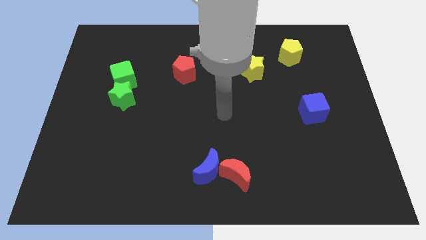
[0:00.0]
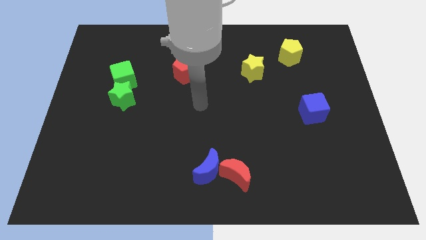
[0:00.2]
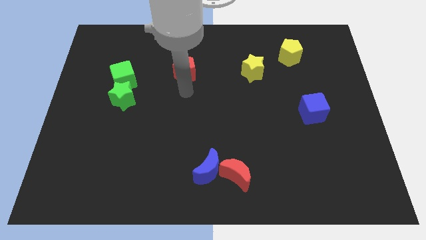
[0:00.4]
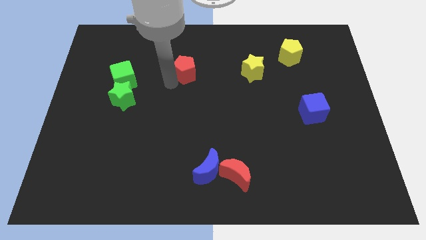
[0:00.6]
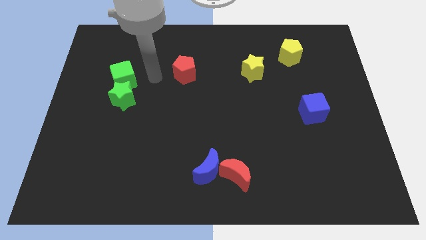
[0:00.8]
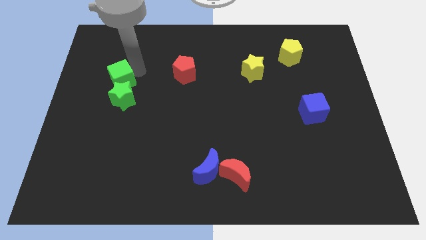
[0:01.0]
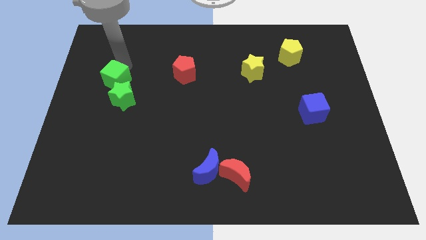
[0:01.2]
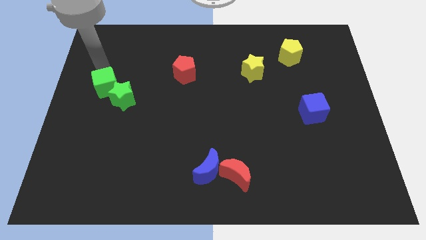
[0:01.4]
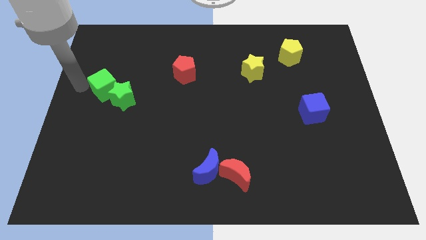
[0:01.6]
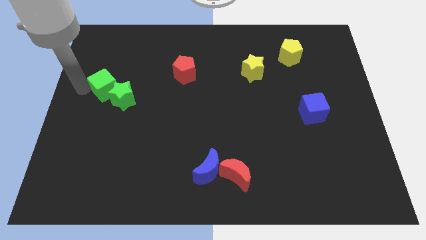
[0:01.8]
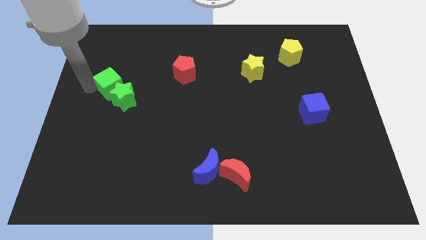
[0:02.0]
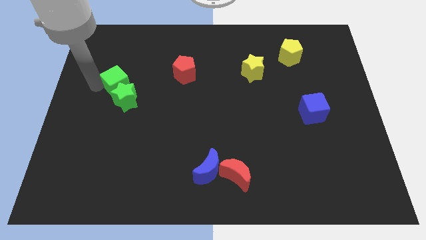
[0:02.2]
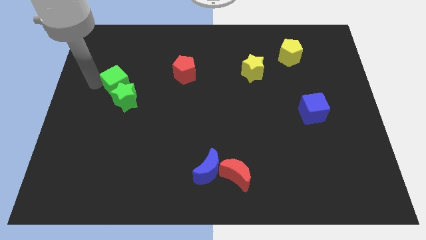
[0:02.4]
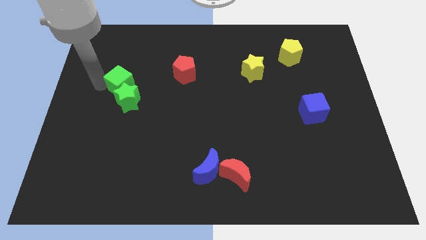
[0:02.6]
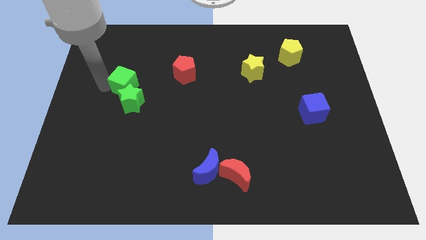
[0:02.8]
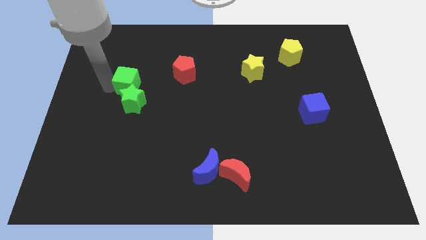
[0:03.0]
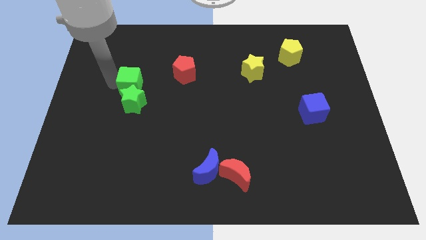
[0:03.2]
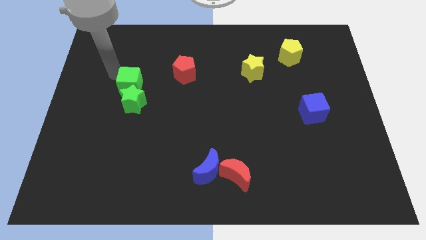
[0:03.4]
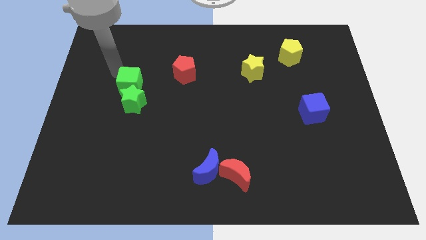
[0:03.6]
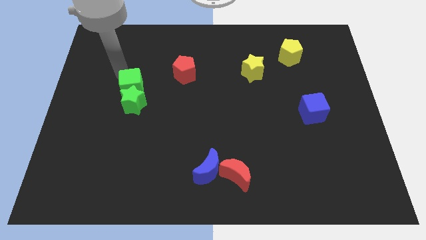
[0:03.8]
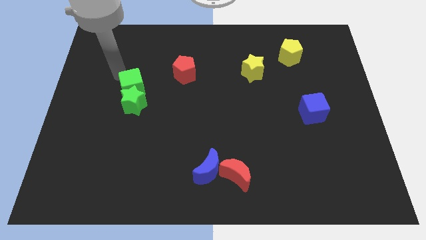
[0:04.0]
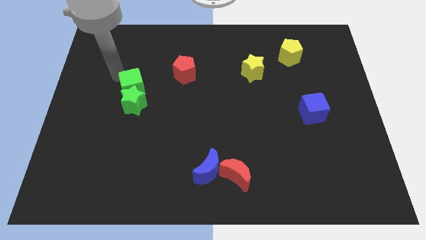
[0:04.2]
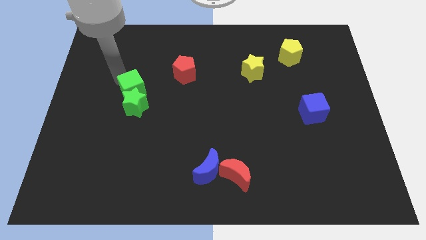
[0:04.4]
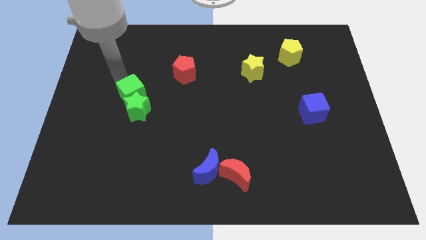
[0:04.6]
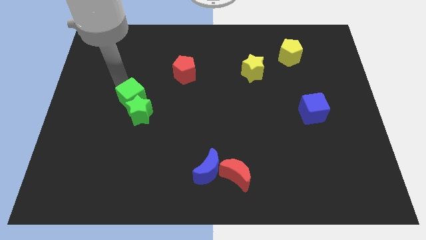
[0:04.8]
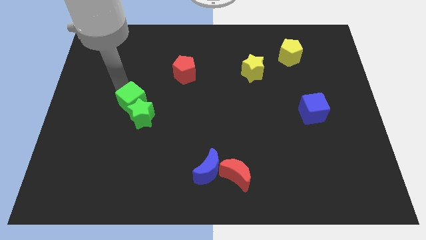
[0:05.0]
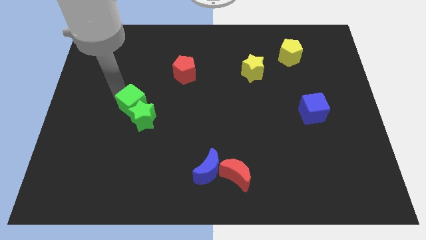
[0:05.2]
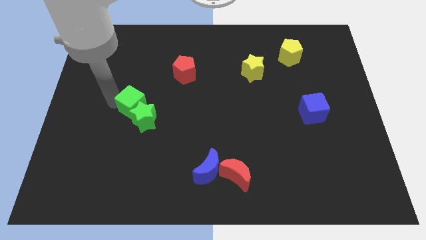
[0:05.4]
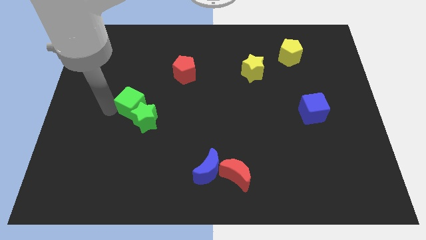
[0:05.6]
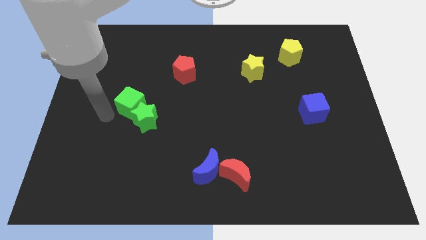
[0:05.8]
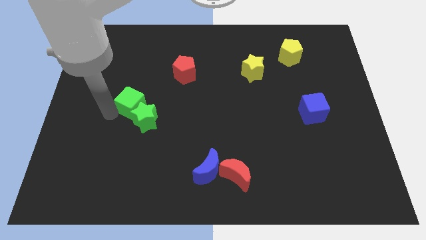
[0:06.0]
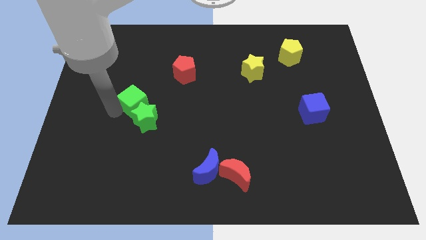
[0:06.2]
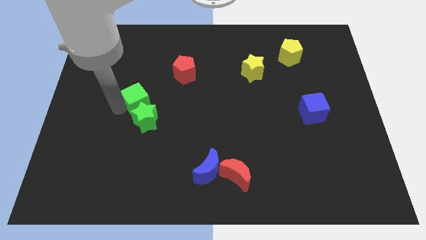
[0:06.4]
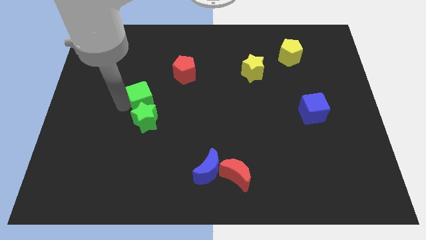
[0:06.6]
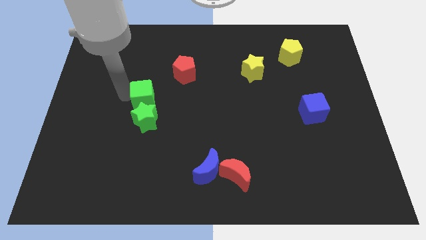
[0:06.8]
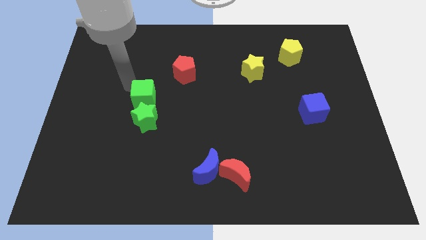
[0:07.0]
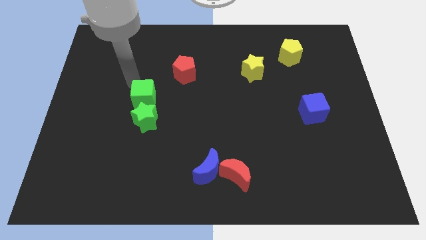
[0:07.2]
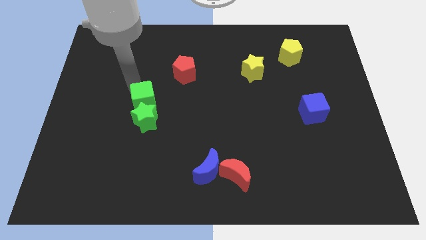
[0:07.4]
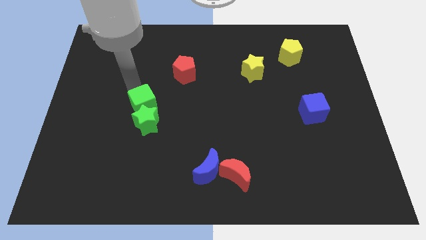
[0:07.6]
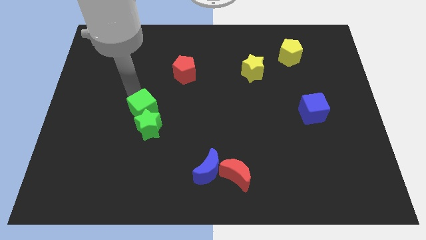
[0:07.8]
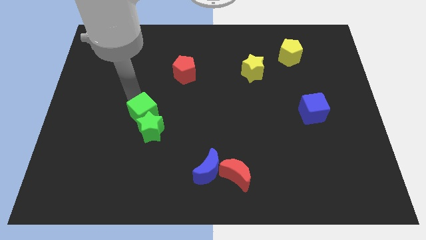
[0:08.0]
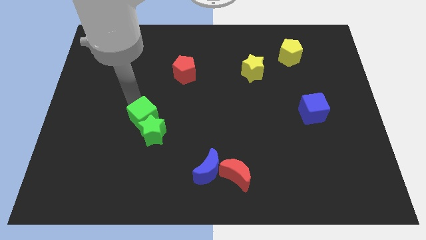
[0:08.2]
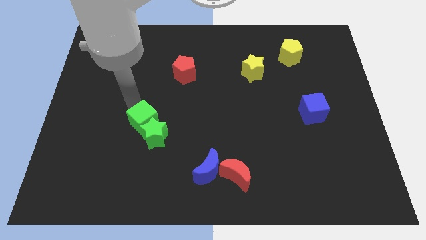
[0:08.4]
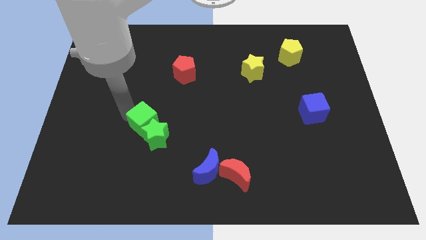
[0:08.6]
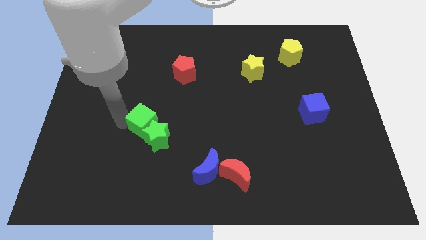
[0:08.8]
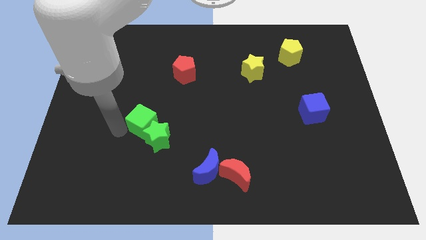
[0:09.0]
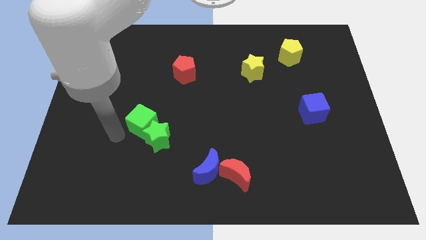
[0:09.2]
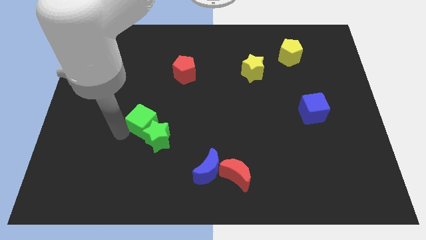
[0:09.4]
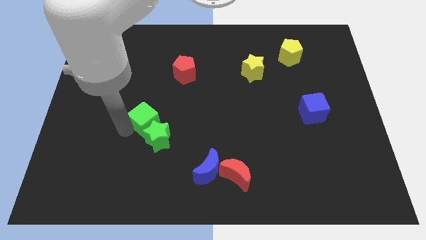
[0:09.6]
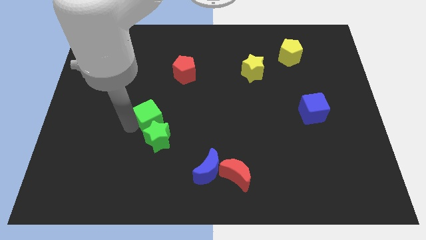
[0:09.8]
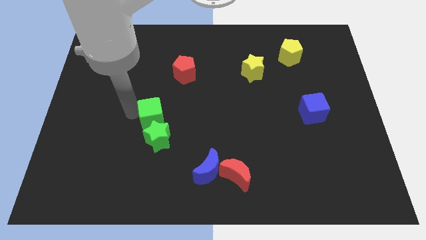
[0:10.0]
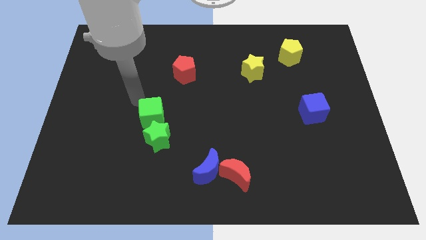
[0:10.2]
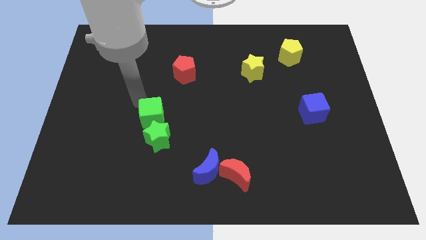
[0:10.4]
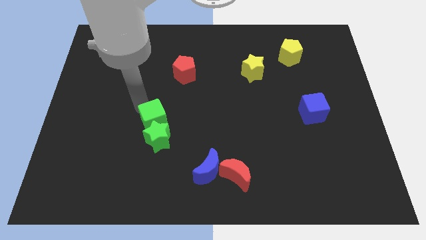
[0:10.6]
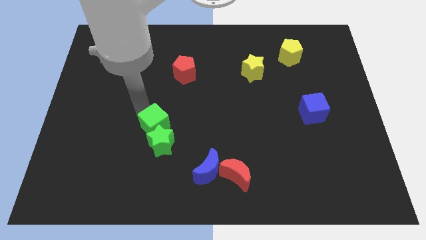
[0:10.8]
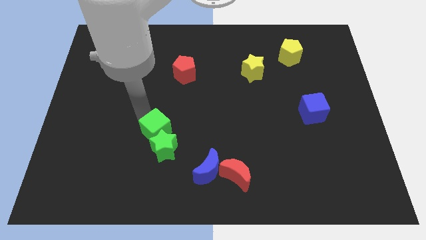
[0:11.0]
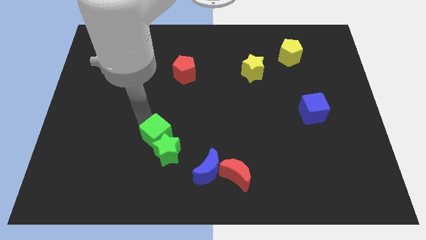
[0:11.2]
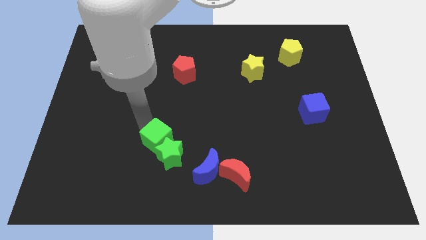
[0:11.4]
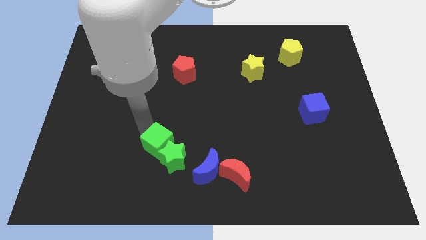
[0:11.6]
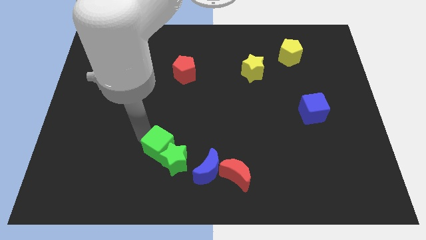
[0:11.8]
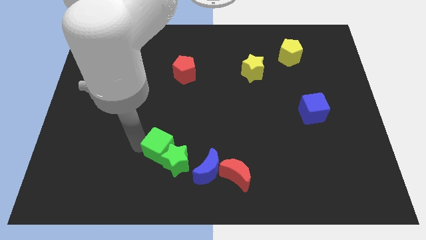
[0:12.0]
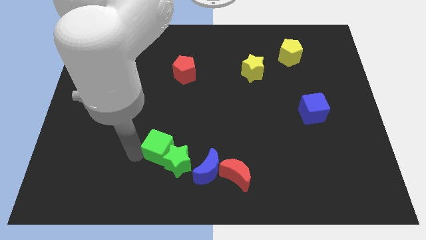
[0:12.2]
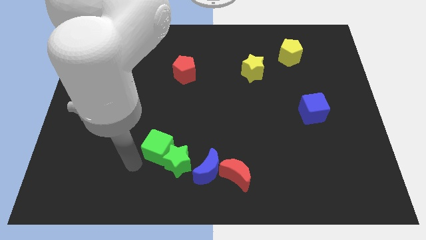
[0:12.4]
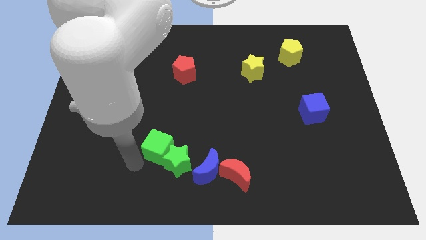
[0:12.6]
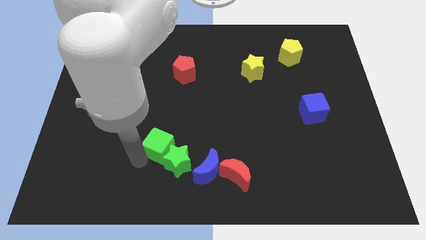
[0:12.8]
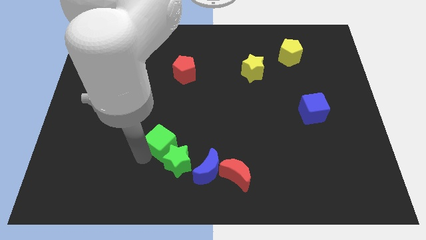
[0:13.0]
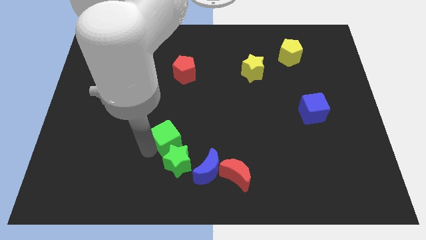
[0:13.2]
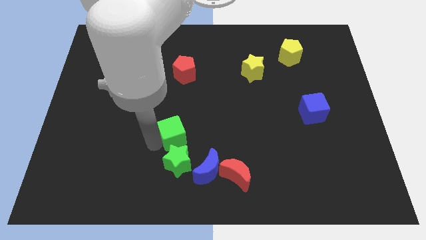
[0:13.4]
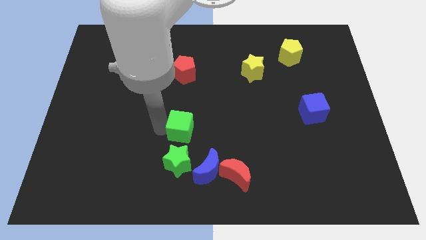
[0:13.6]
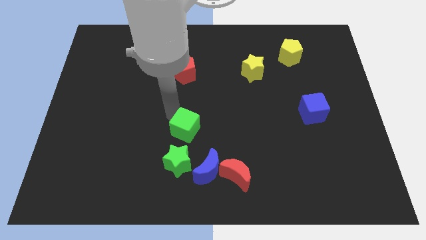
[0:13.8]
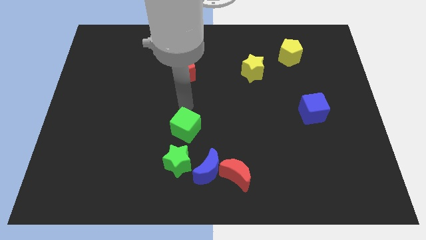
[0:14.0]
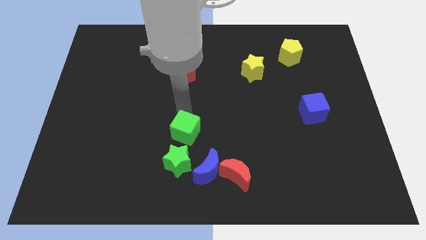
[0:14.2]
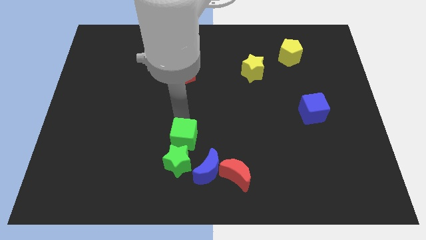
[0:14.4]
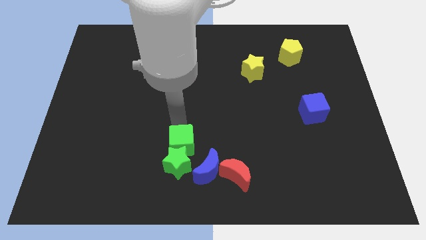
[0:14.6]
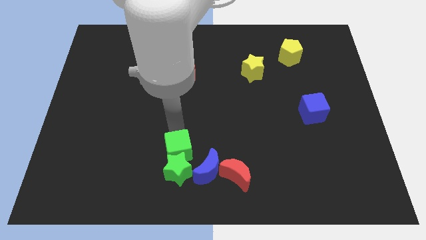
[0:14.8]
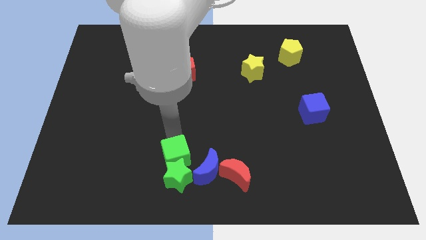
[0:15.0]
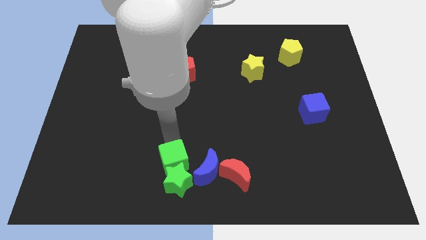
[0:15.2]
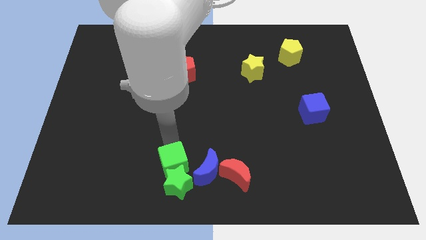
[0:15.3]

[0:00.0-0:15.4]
slide the green cube to the bottom

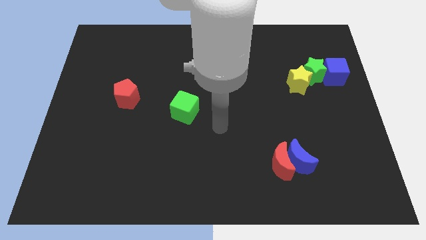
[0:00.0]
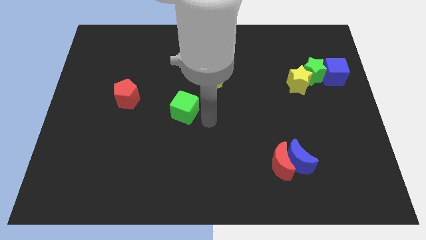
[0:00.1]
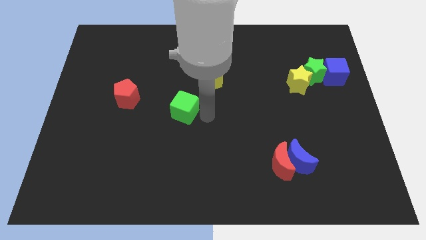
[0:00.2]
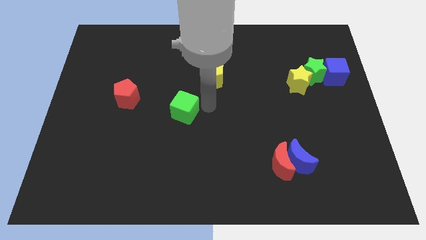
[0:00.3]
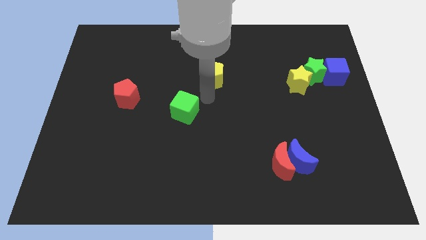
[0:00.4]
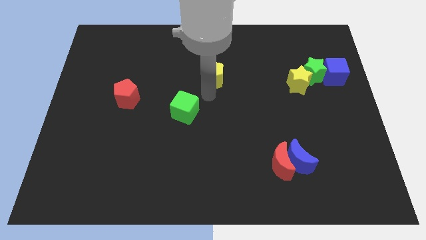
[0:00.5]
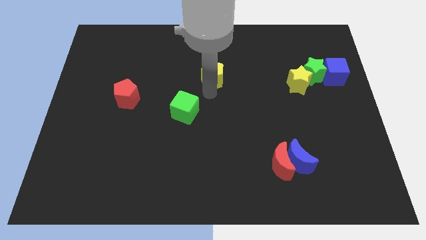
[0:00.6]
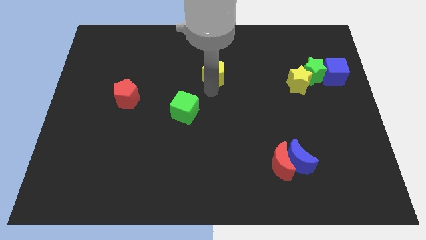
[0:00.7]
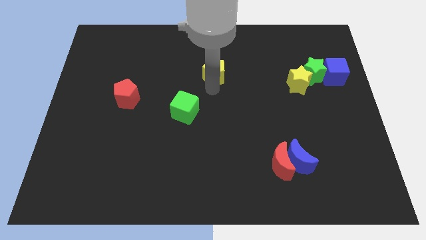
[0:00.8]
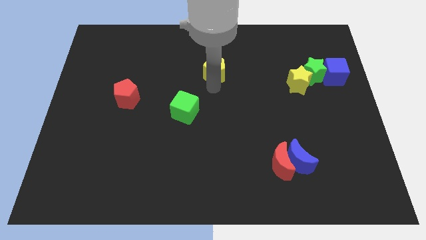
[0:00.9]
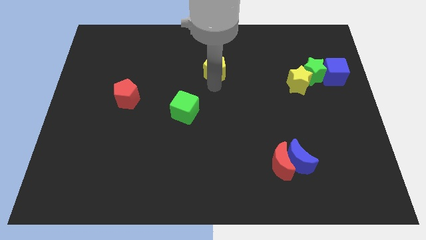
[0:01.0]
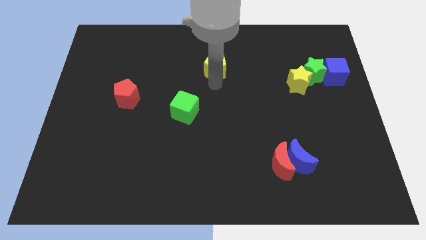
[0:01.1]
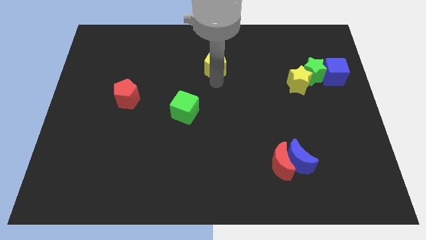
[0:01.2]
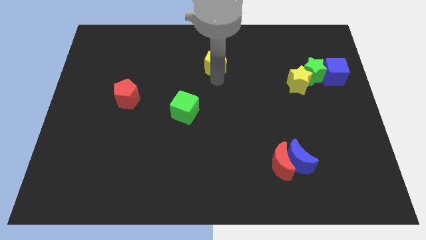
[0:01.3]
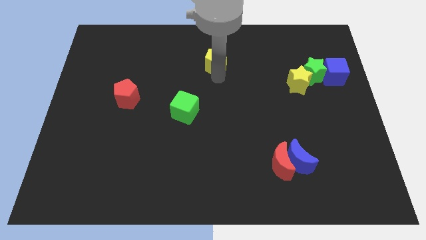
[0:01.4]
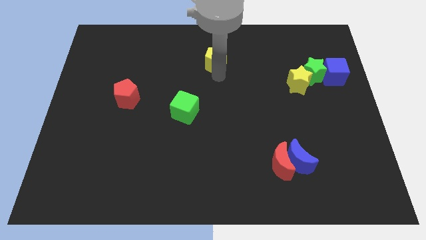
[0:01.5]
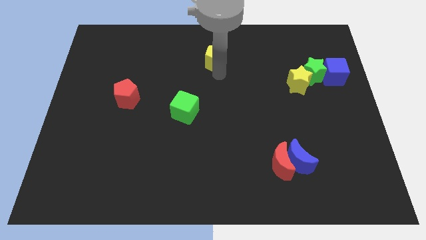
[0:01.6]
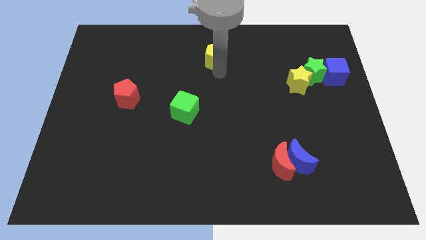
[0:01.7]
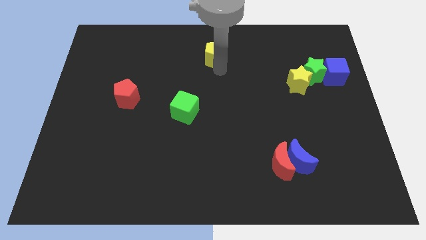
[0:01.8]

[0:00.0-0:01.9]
put the yellow pentagon to the top
